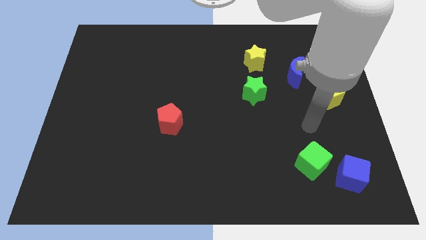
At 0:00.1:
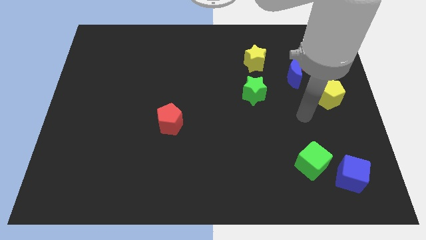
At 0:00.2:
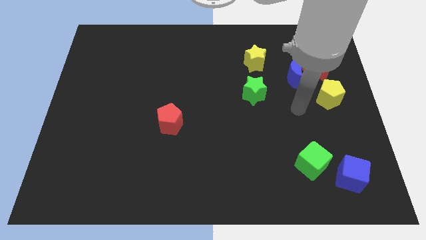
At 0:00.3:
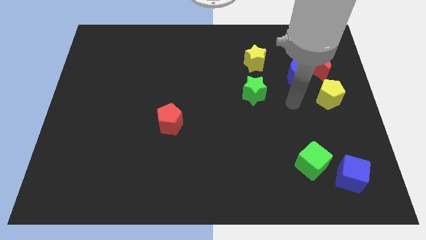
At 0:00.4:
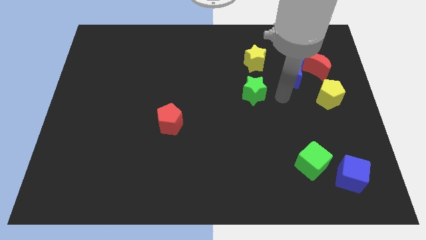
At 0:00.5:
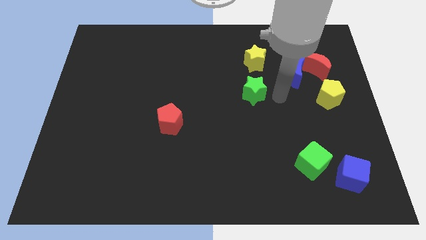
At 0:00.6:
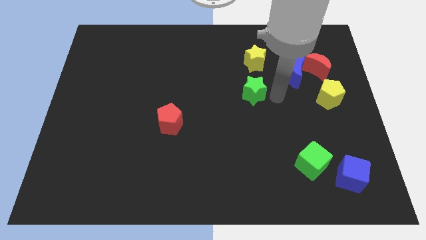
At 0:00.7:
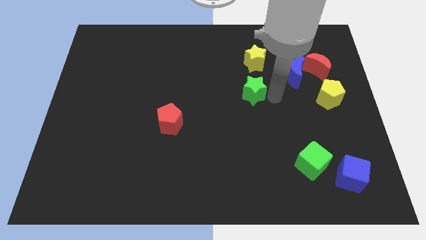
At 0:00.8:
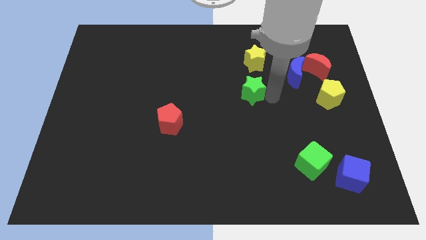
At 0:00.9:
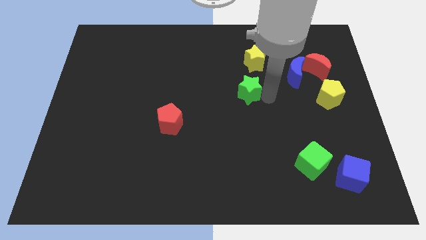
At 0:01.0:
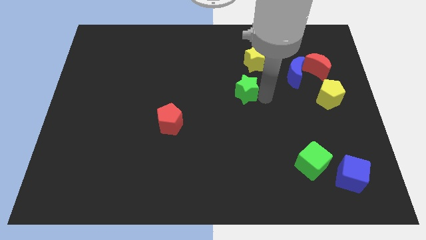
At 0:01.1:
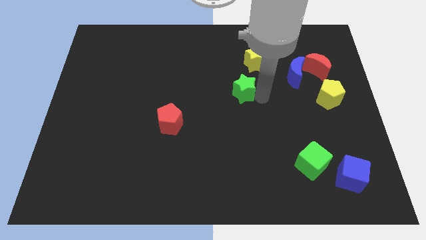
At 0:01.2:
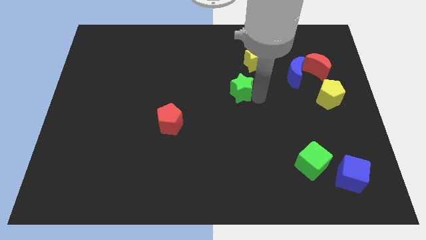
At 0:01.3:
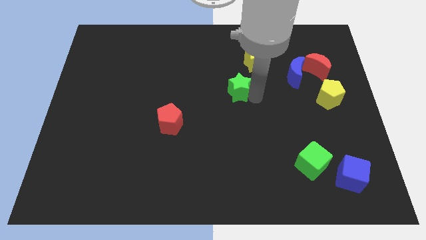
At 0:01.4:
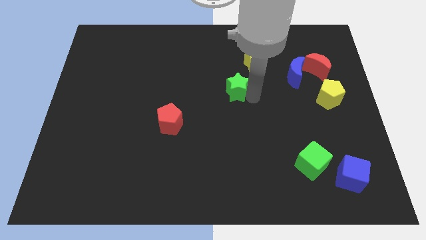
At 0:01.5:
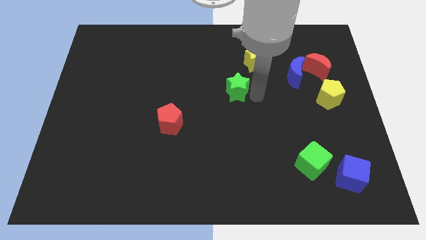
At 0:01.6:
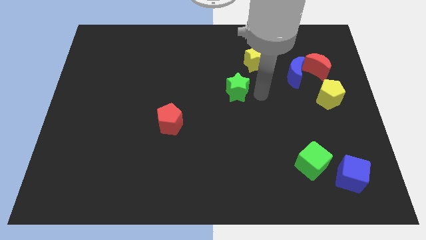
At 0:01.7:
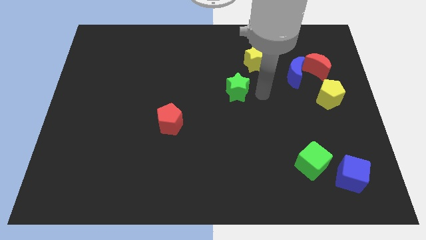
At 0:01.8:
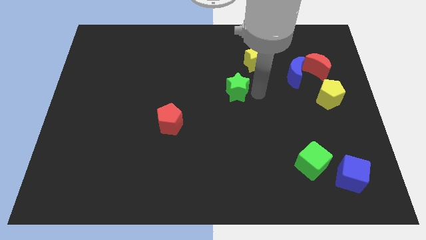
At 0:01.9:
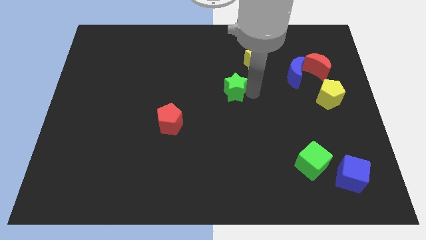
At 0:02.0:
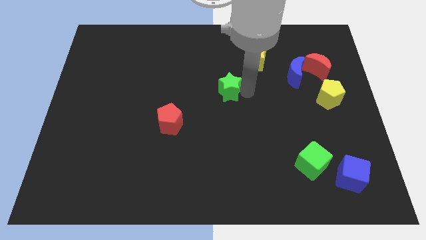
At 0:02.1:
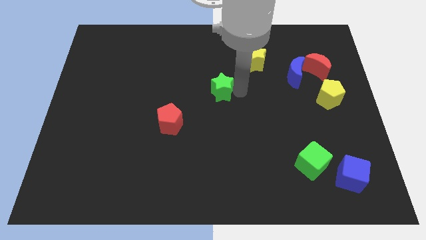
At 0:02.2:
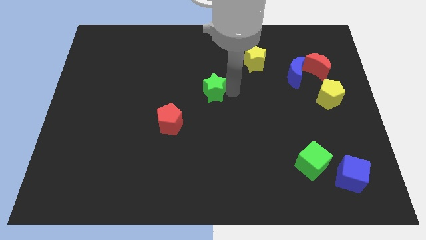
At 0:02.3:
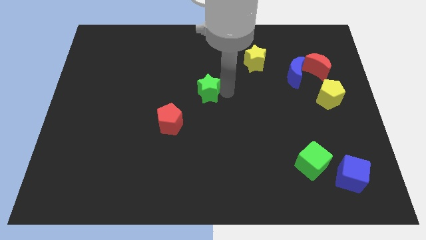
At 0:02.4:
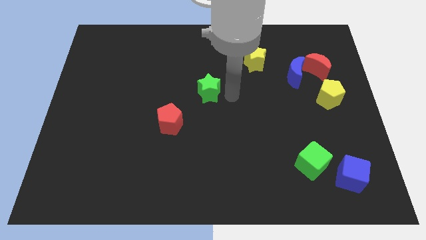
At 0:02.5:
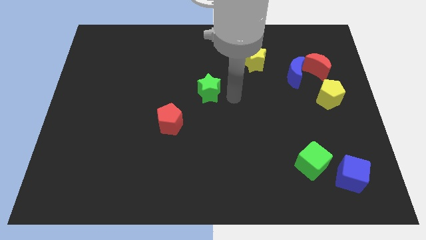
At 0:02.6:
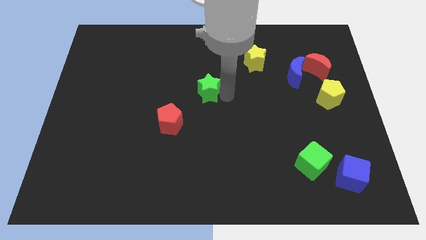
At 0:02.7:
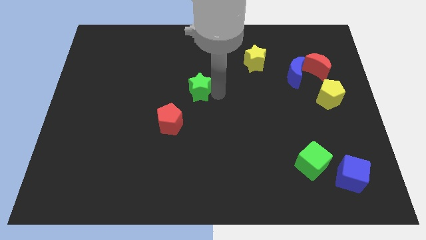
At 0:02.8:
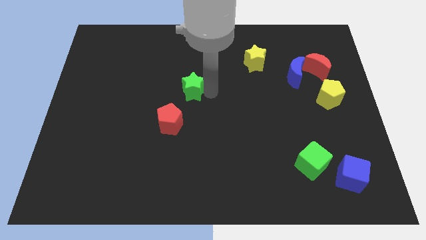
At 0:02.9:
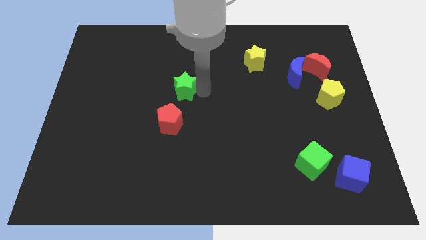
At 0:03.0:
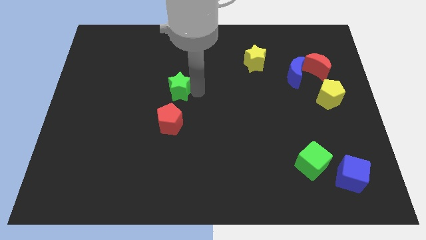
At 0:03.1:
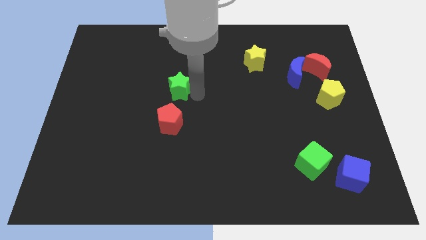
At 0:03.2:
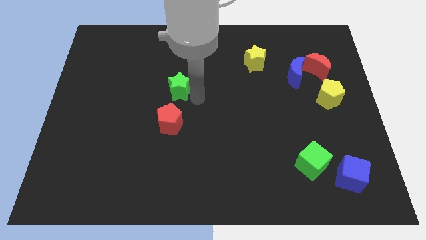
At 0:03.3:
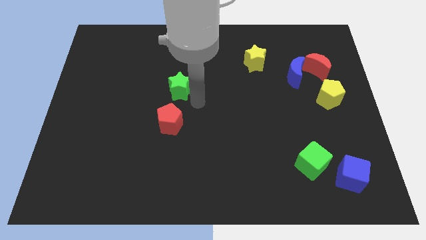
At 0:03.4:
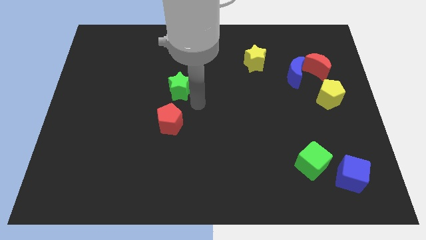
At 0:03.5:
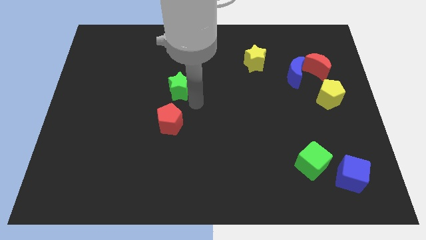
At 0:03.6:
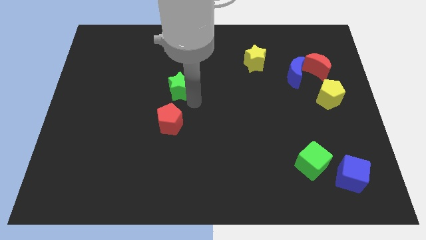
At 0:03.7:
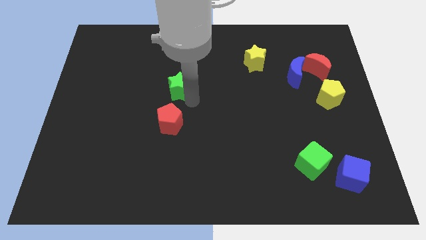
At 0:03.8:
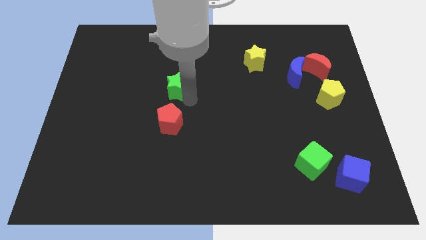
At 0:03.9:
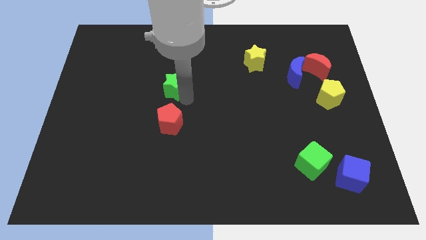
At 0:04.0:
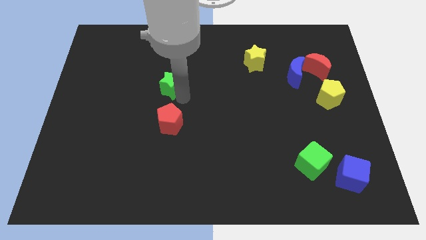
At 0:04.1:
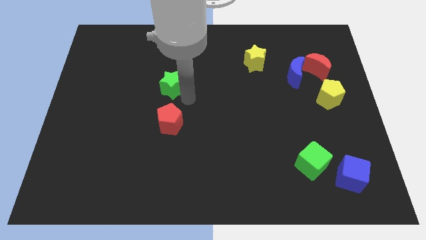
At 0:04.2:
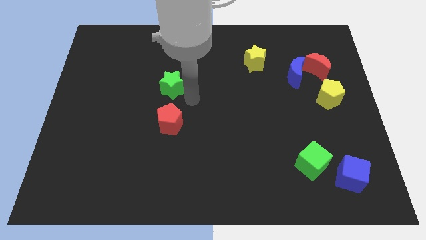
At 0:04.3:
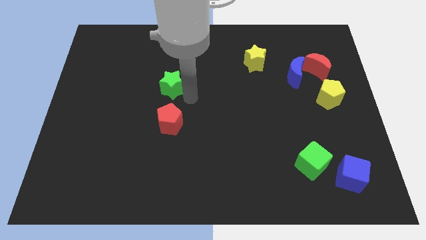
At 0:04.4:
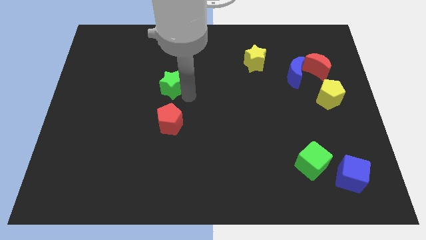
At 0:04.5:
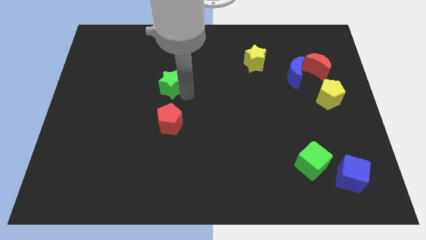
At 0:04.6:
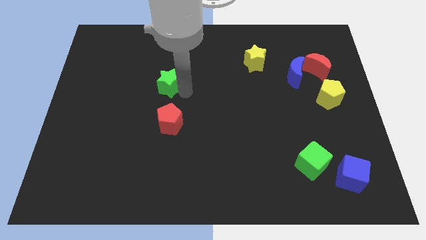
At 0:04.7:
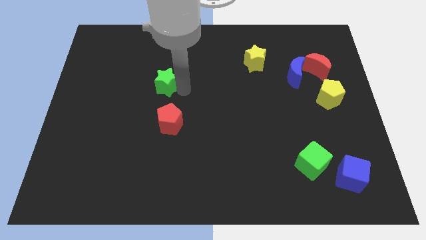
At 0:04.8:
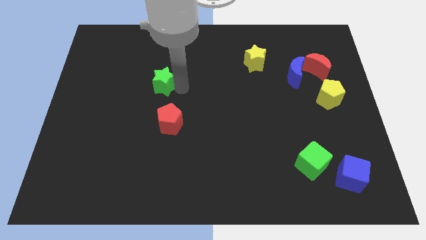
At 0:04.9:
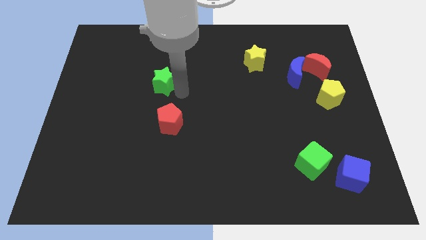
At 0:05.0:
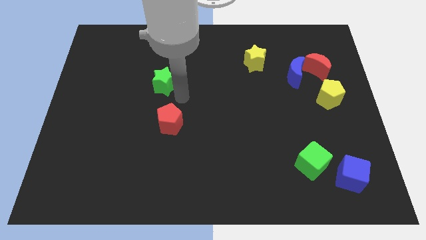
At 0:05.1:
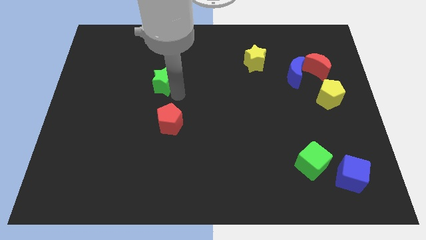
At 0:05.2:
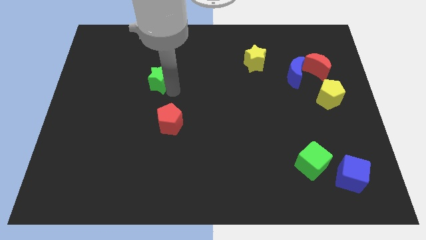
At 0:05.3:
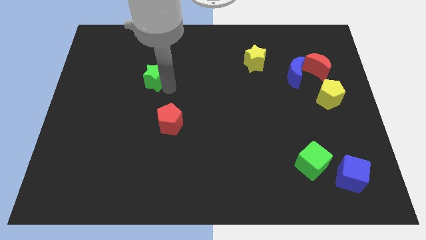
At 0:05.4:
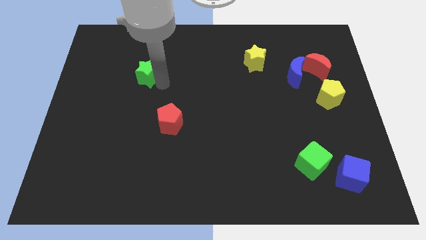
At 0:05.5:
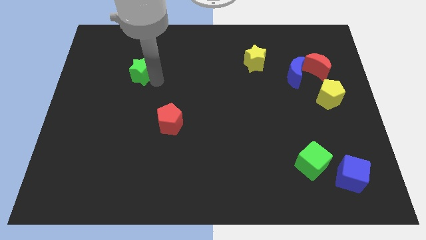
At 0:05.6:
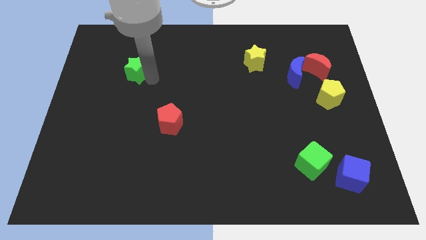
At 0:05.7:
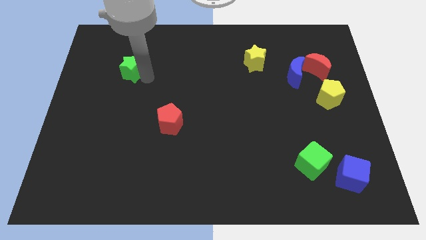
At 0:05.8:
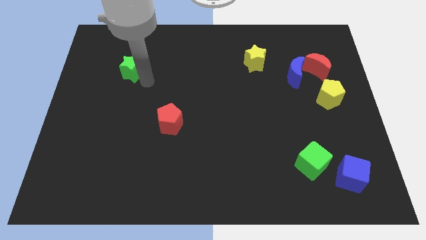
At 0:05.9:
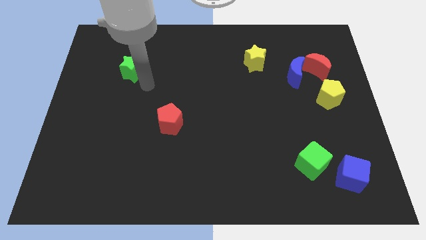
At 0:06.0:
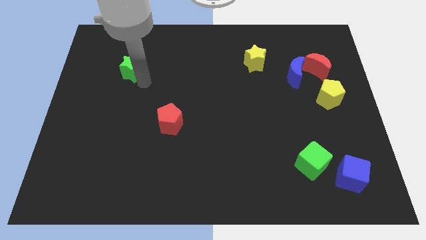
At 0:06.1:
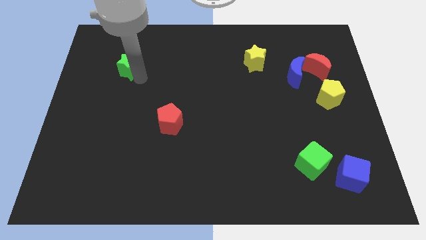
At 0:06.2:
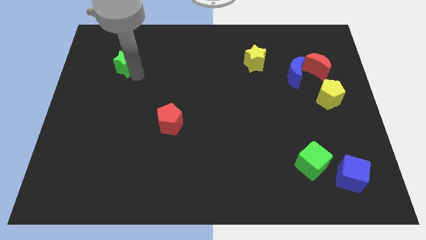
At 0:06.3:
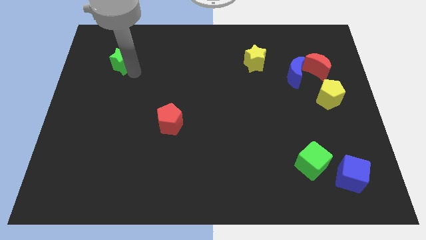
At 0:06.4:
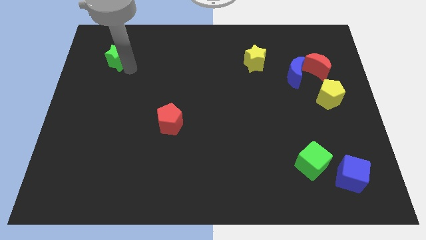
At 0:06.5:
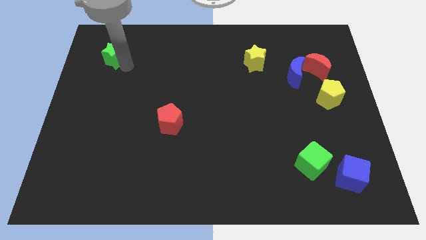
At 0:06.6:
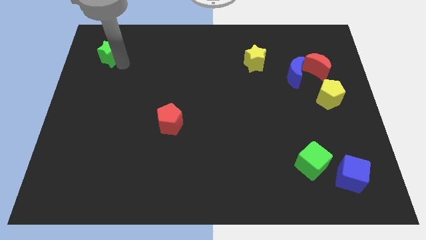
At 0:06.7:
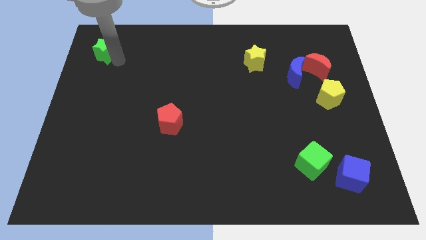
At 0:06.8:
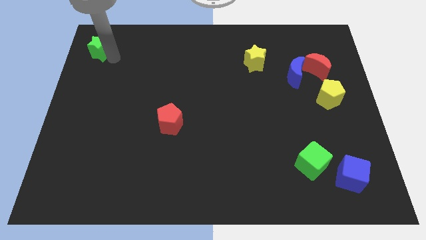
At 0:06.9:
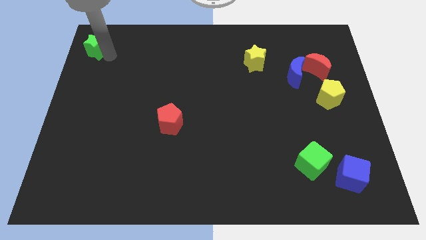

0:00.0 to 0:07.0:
put the green star to the upper left corner
